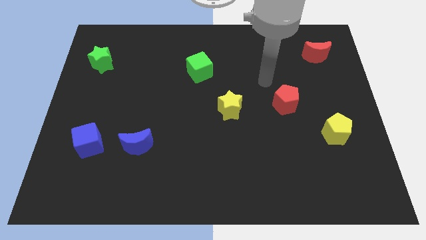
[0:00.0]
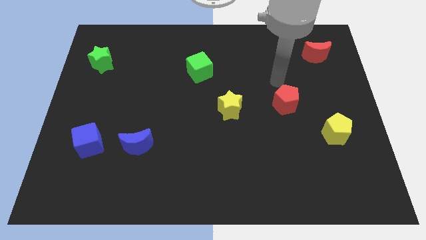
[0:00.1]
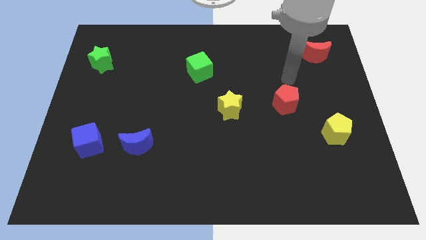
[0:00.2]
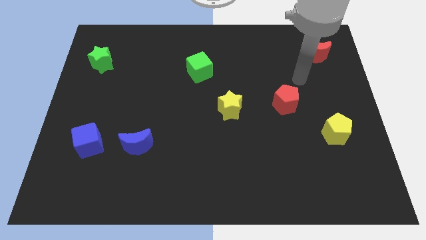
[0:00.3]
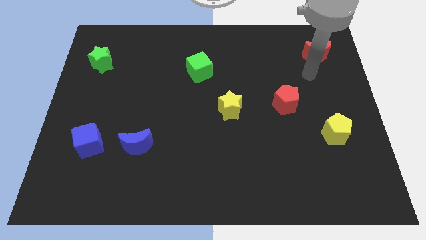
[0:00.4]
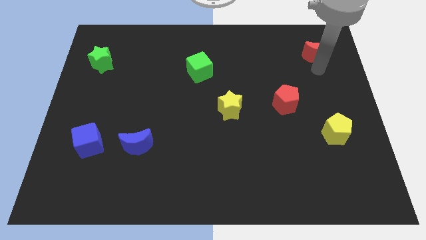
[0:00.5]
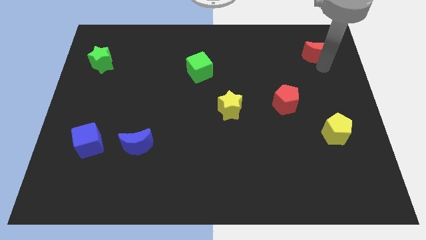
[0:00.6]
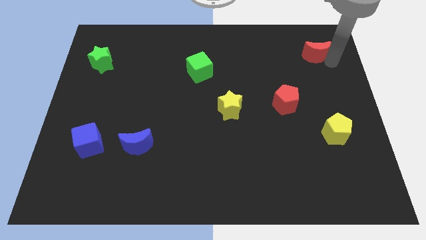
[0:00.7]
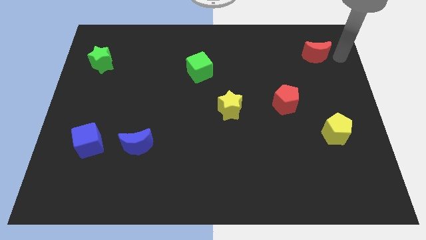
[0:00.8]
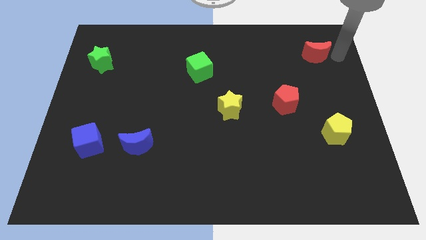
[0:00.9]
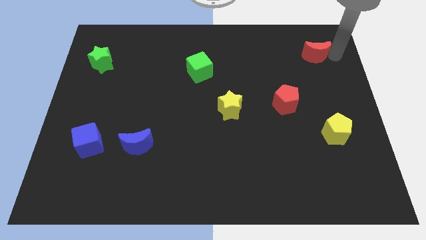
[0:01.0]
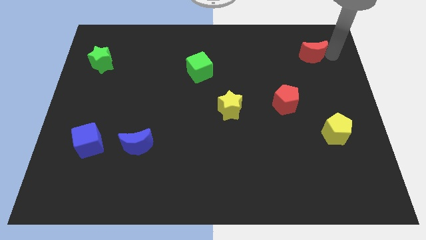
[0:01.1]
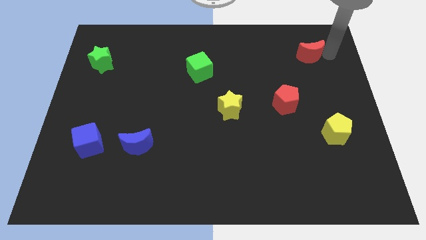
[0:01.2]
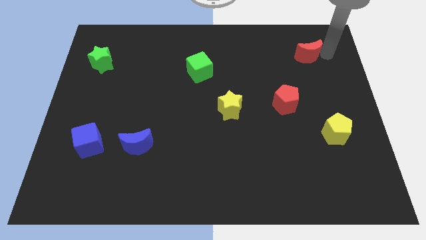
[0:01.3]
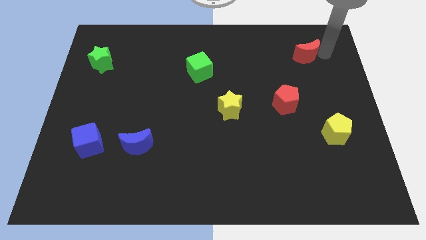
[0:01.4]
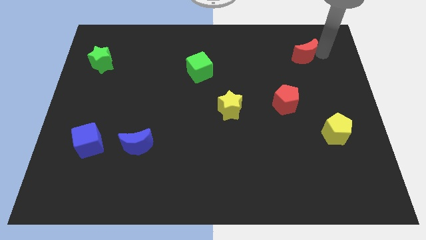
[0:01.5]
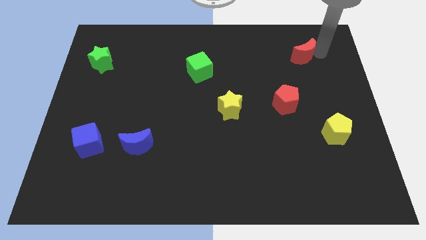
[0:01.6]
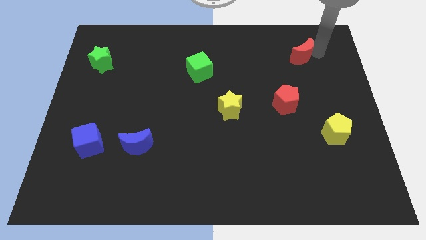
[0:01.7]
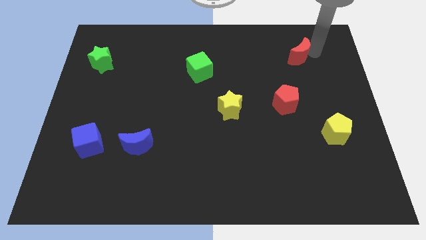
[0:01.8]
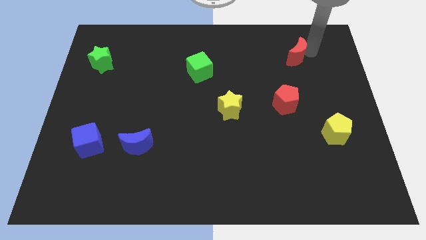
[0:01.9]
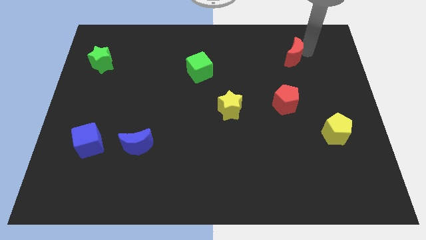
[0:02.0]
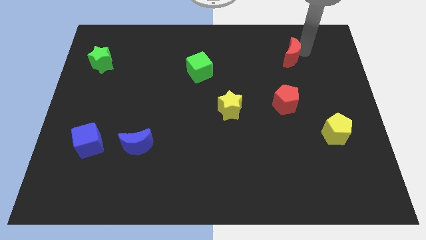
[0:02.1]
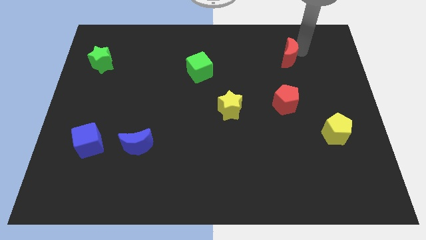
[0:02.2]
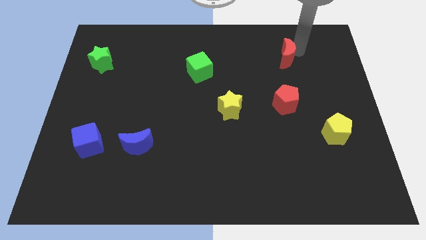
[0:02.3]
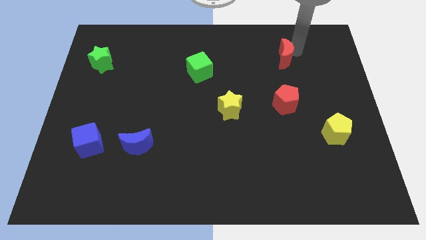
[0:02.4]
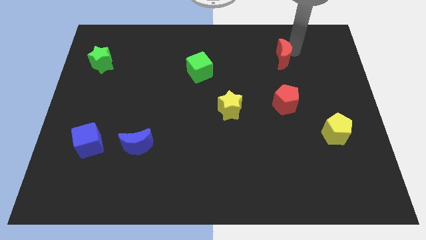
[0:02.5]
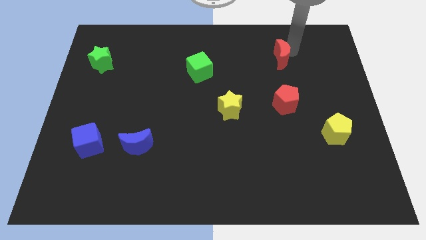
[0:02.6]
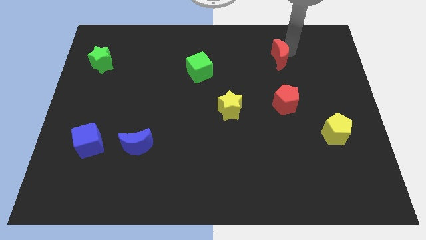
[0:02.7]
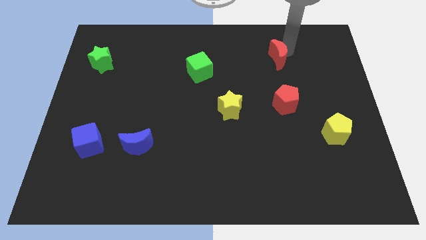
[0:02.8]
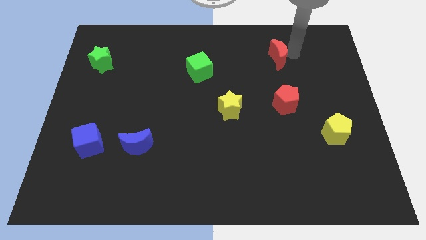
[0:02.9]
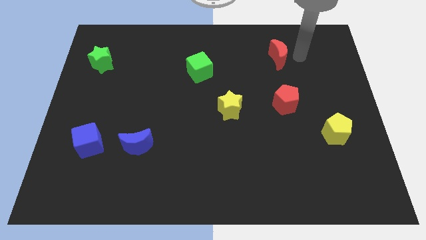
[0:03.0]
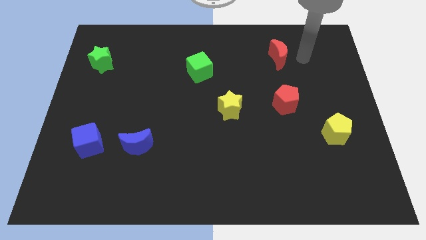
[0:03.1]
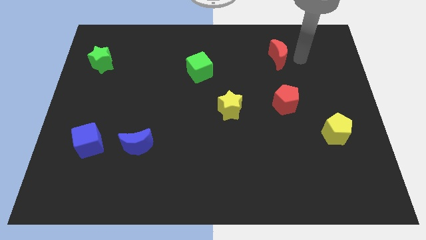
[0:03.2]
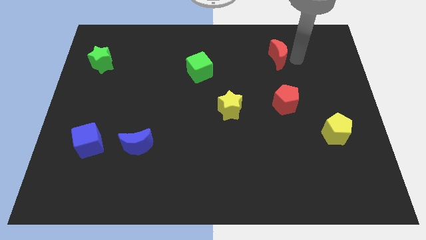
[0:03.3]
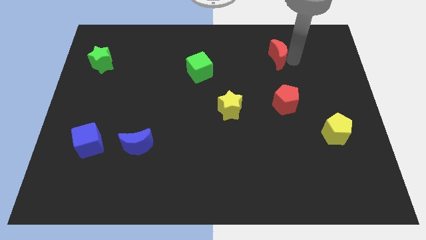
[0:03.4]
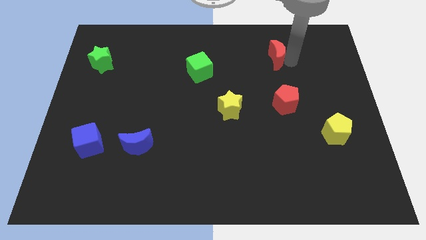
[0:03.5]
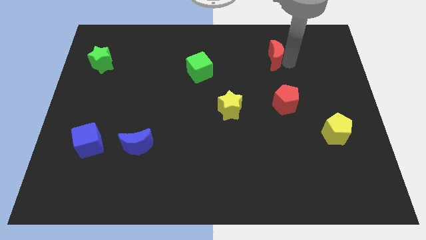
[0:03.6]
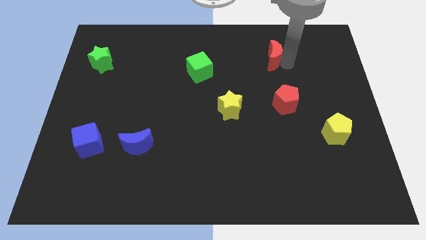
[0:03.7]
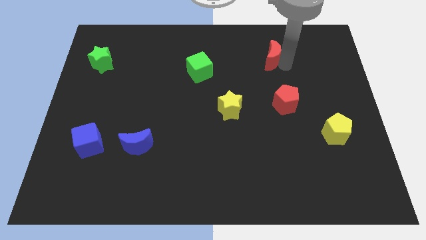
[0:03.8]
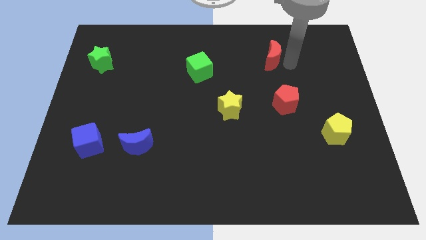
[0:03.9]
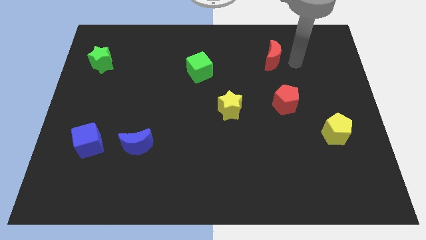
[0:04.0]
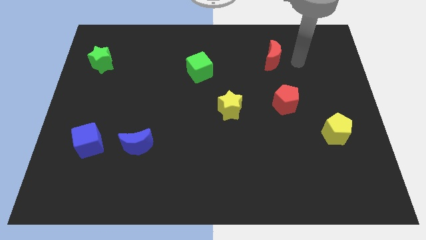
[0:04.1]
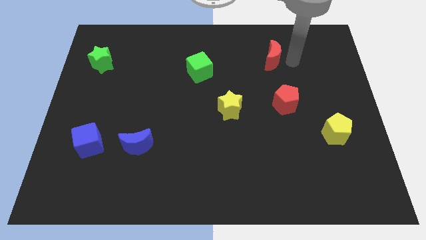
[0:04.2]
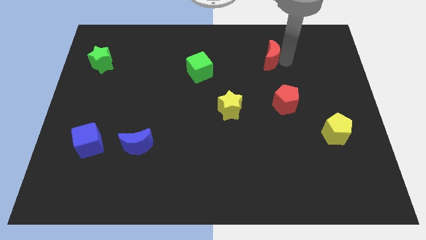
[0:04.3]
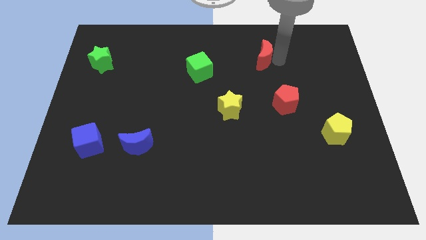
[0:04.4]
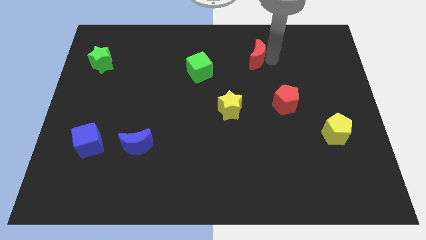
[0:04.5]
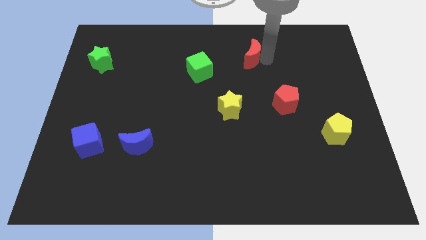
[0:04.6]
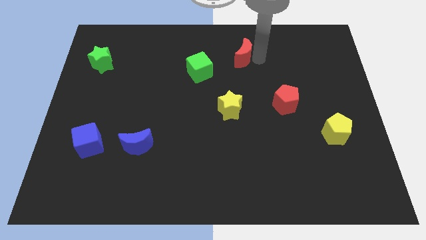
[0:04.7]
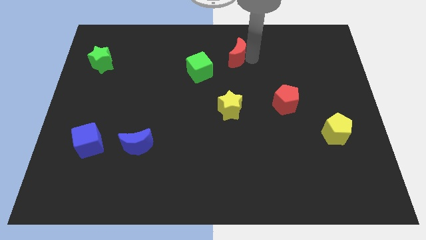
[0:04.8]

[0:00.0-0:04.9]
slide the red moon to the left

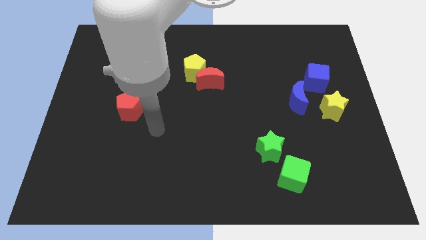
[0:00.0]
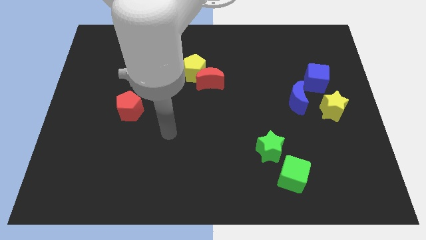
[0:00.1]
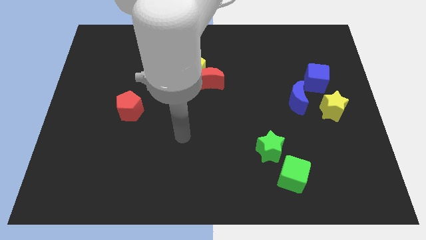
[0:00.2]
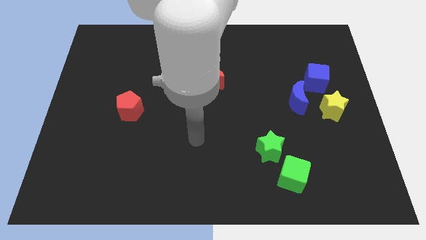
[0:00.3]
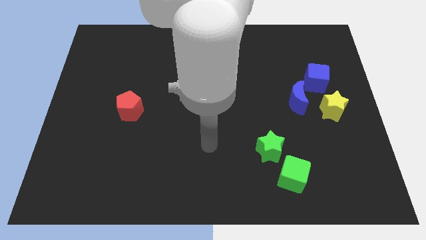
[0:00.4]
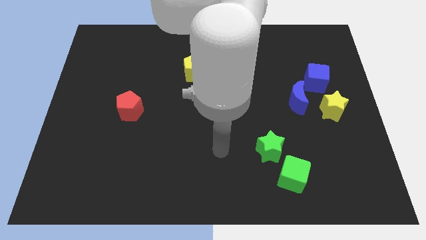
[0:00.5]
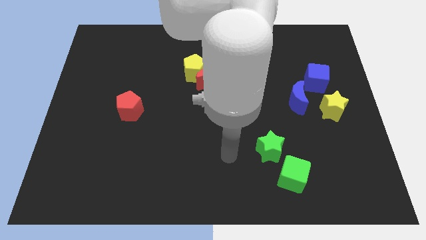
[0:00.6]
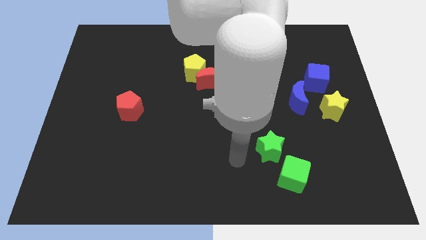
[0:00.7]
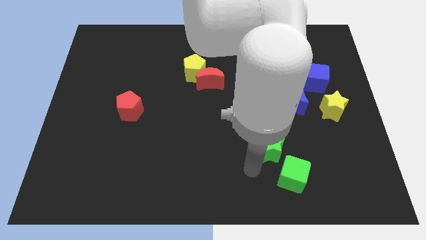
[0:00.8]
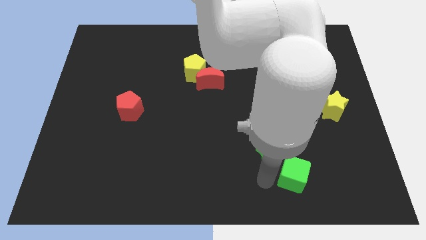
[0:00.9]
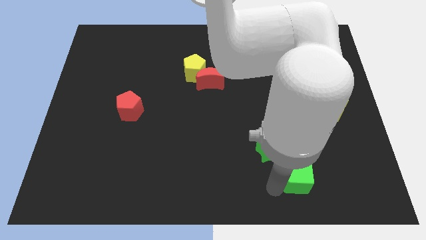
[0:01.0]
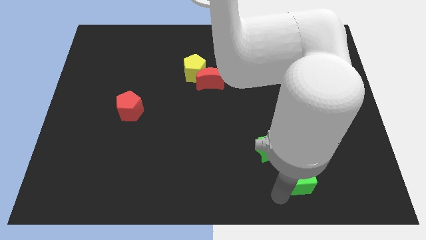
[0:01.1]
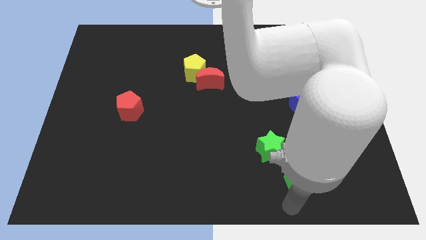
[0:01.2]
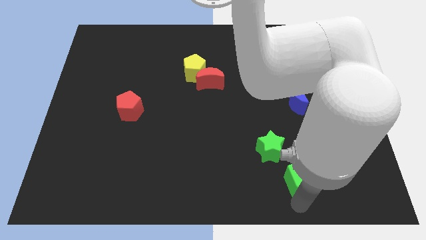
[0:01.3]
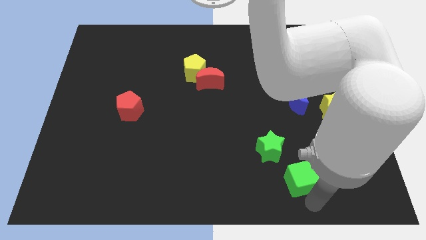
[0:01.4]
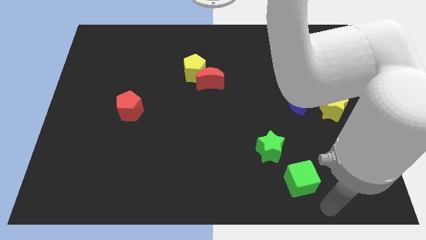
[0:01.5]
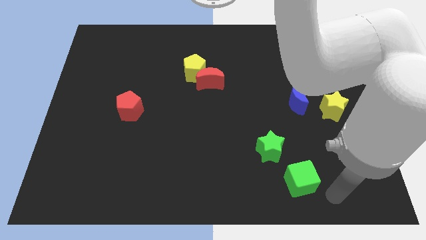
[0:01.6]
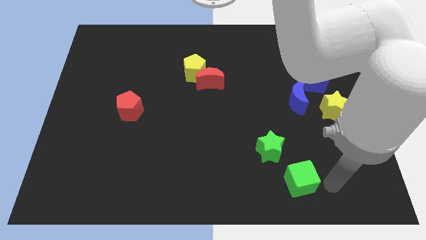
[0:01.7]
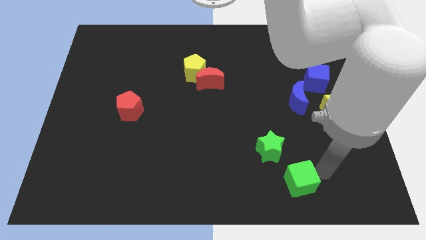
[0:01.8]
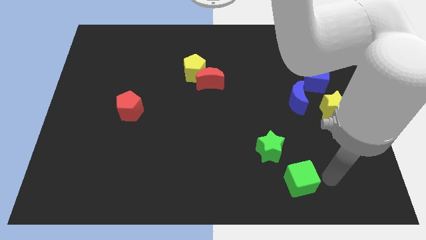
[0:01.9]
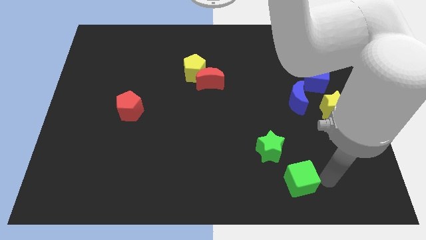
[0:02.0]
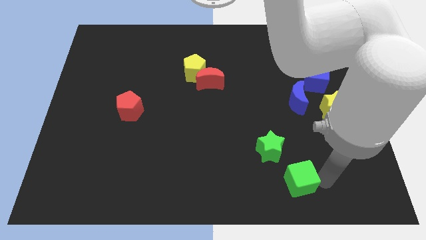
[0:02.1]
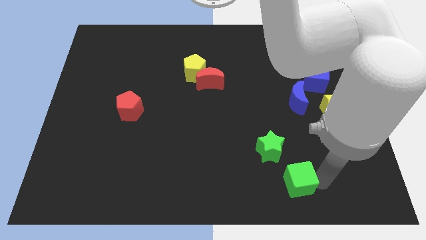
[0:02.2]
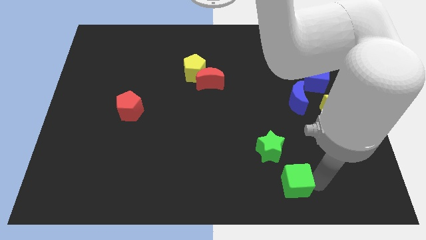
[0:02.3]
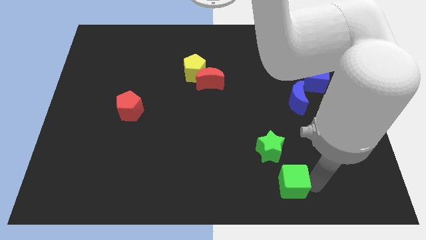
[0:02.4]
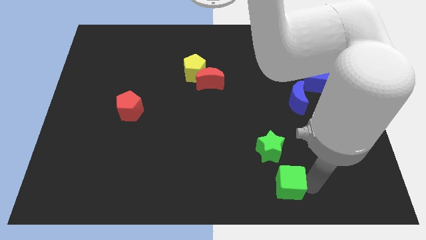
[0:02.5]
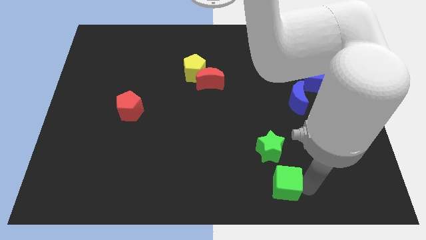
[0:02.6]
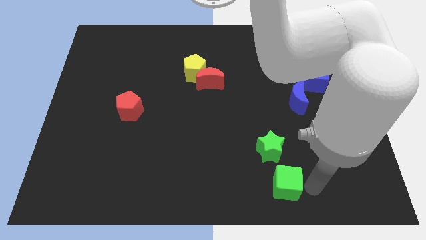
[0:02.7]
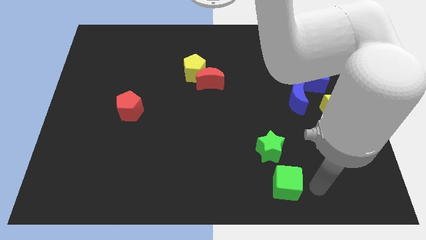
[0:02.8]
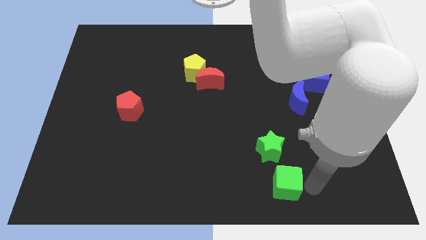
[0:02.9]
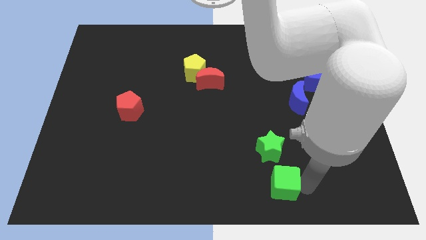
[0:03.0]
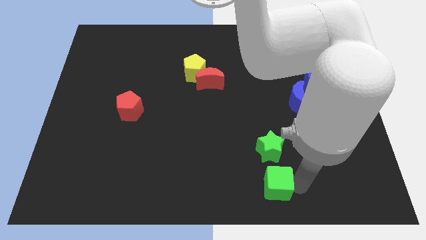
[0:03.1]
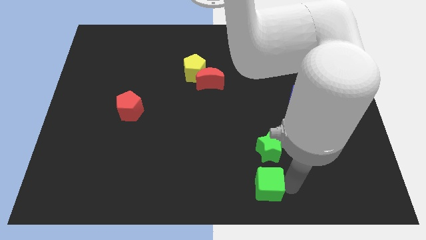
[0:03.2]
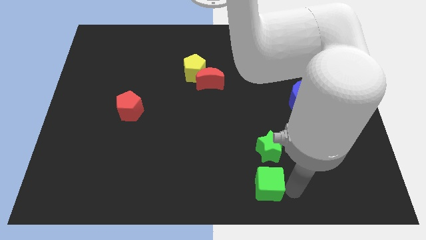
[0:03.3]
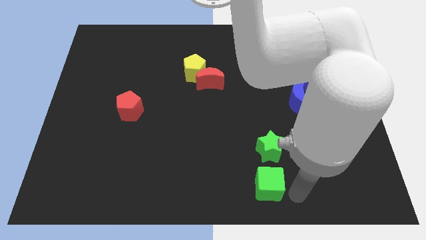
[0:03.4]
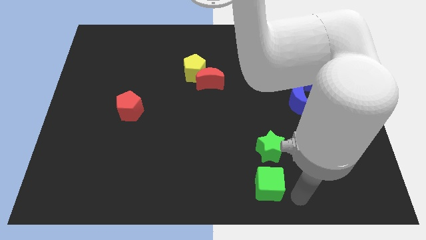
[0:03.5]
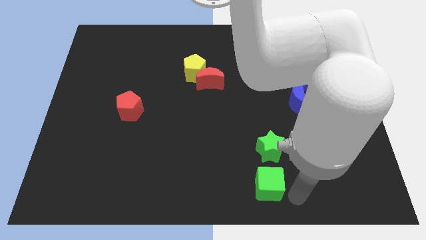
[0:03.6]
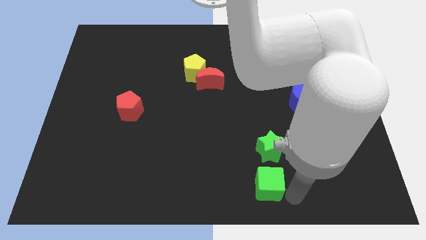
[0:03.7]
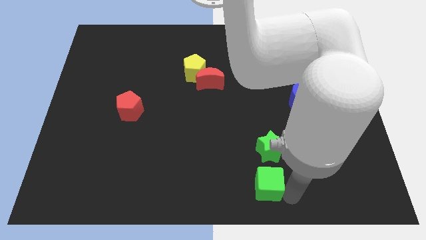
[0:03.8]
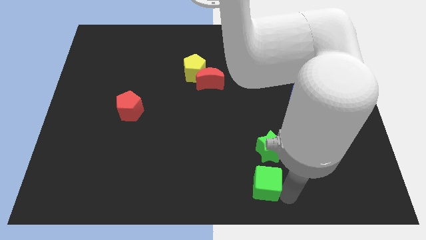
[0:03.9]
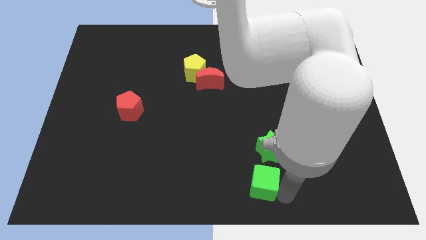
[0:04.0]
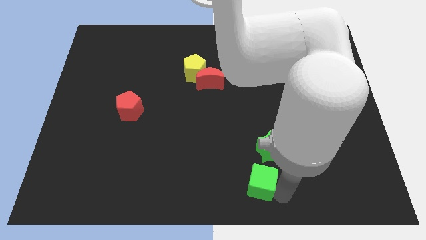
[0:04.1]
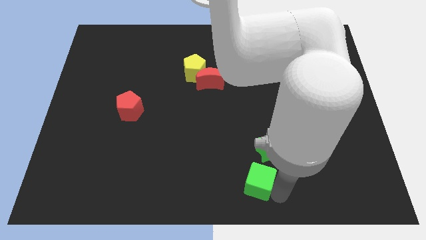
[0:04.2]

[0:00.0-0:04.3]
slightly move the green cube left
